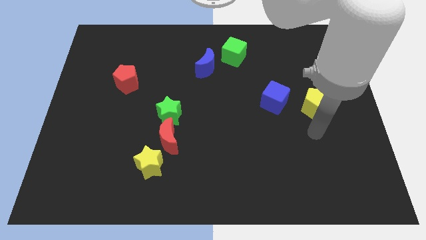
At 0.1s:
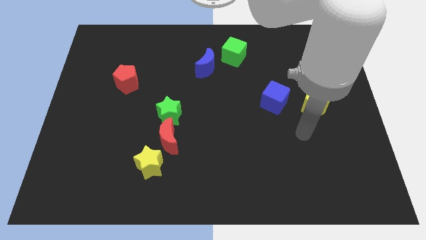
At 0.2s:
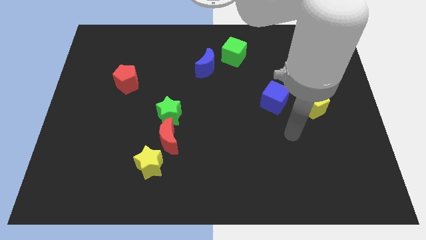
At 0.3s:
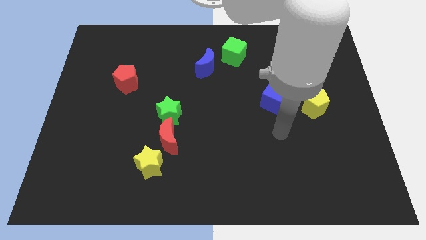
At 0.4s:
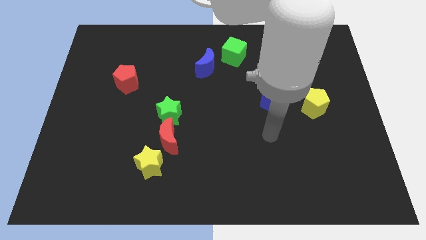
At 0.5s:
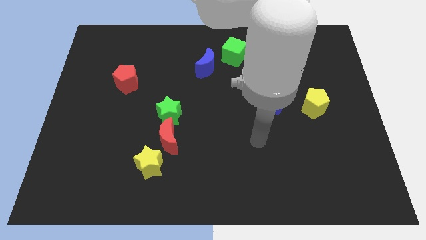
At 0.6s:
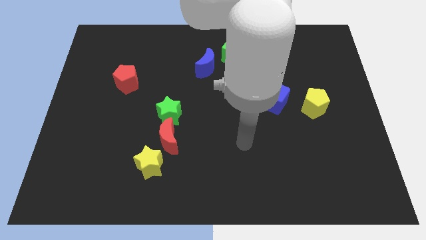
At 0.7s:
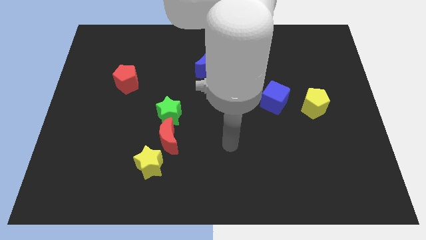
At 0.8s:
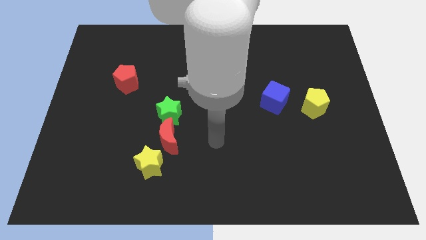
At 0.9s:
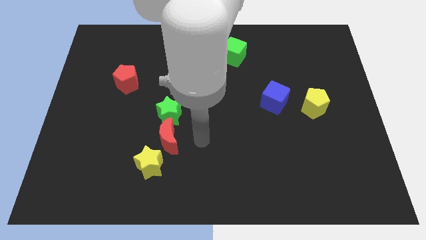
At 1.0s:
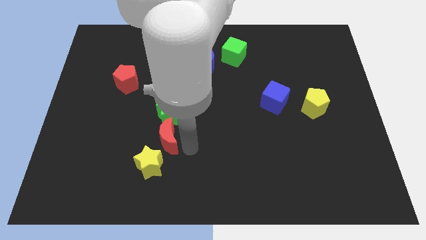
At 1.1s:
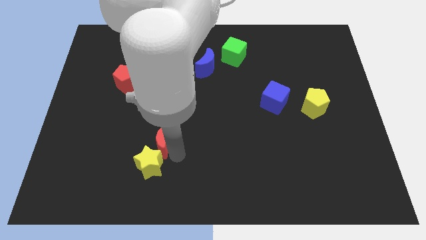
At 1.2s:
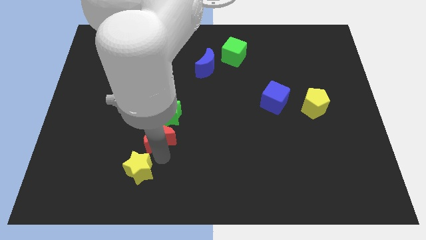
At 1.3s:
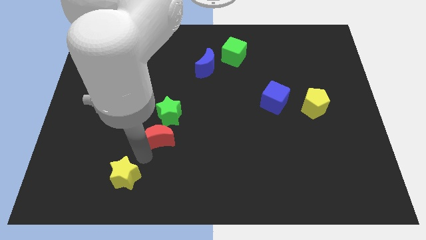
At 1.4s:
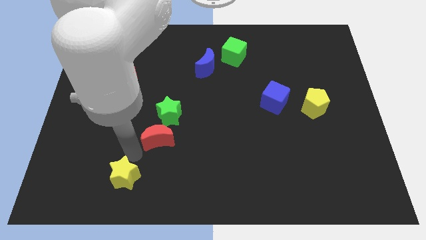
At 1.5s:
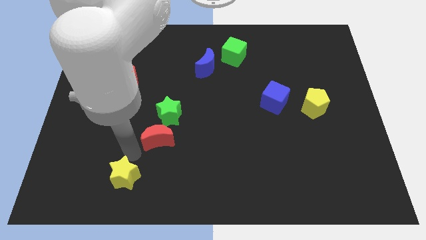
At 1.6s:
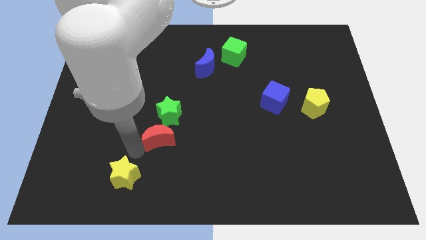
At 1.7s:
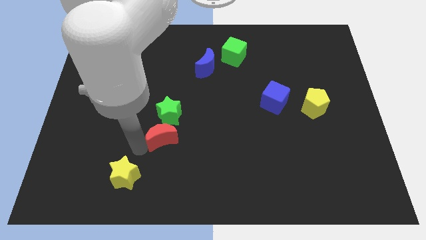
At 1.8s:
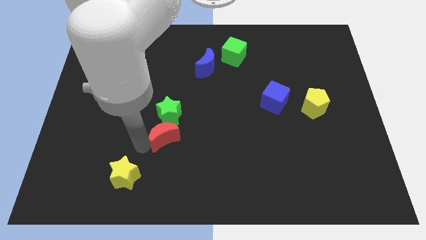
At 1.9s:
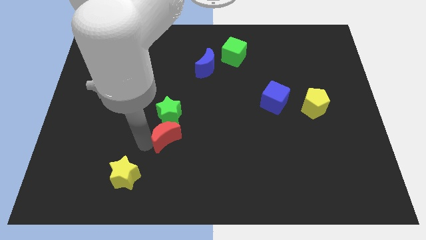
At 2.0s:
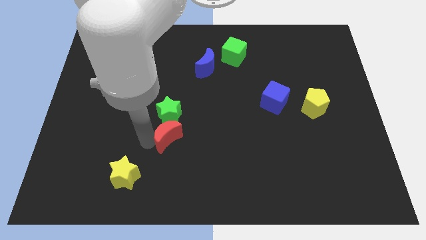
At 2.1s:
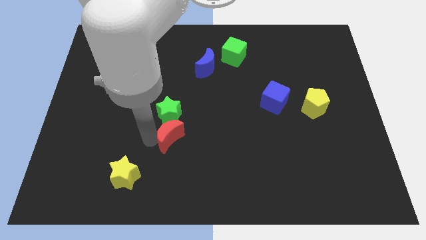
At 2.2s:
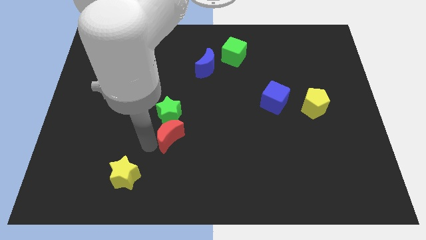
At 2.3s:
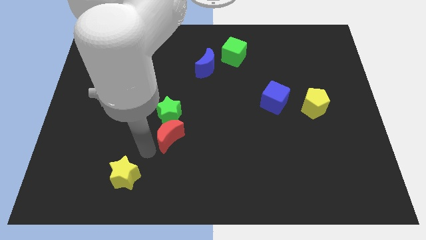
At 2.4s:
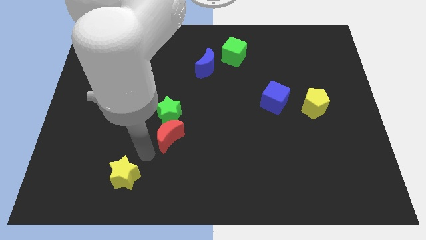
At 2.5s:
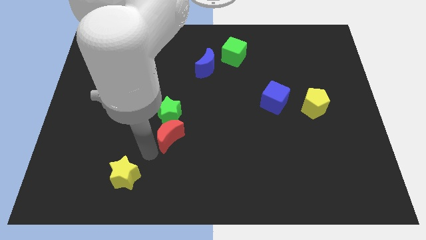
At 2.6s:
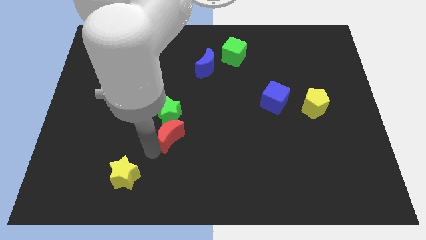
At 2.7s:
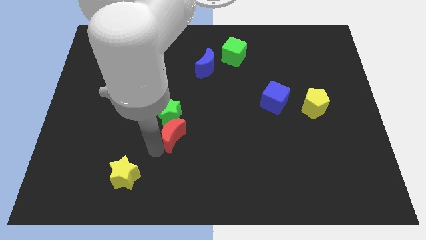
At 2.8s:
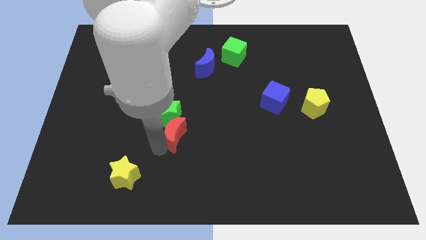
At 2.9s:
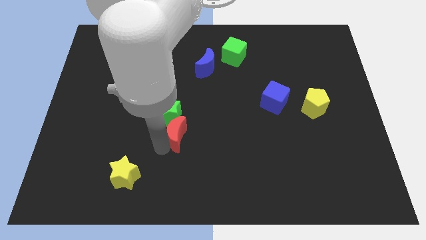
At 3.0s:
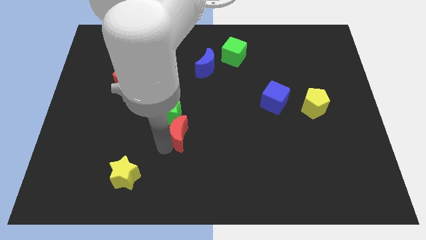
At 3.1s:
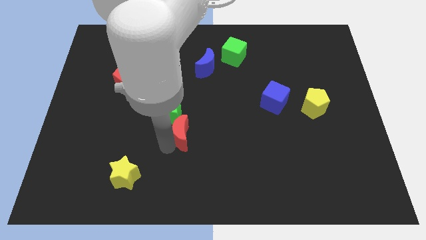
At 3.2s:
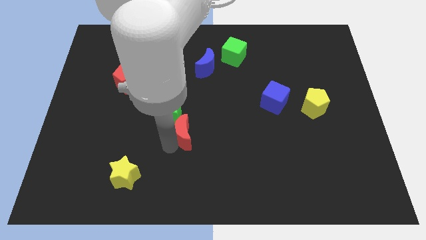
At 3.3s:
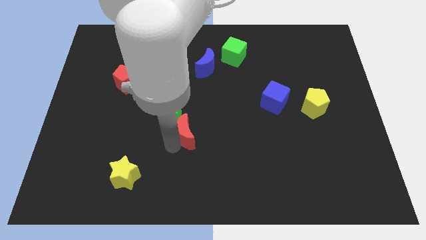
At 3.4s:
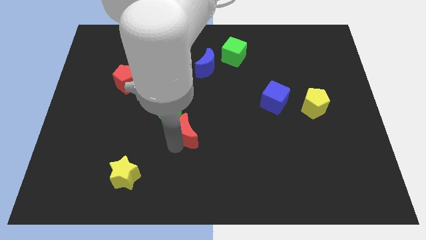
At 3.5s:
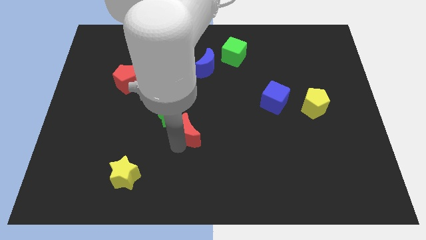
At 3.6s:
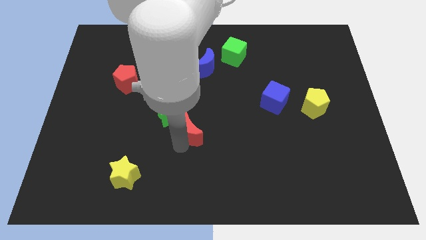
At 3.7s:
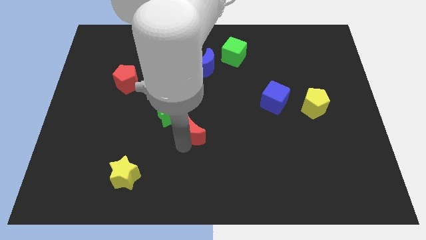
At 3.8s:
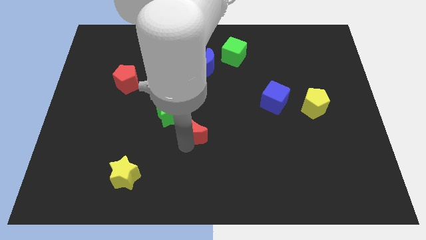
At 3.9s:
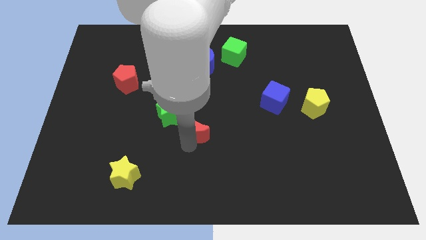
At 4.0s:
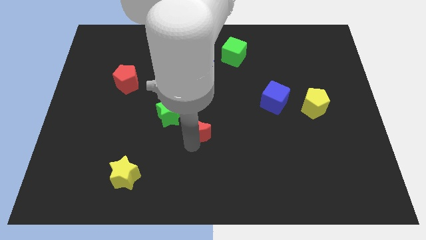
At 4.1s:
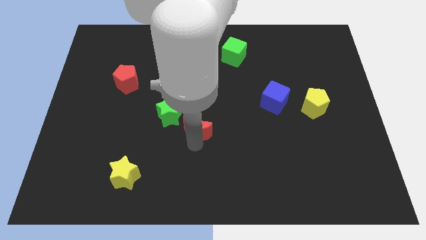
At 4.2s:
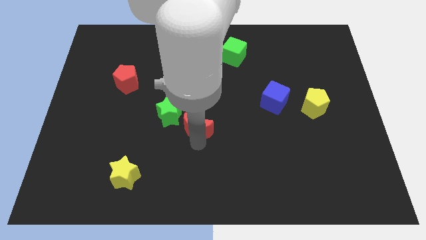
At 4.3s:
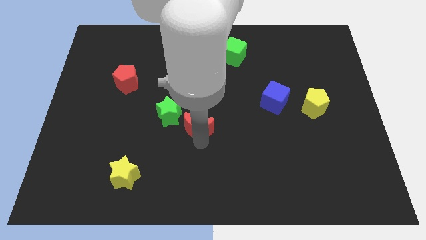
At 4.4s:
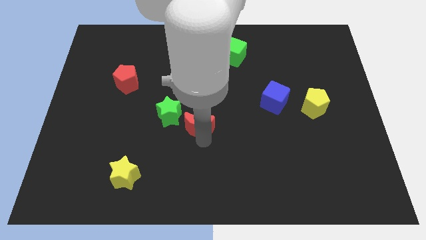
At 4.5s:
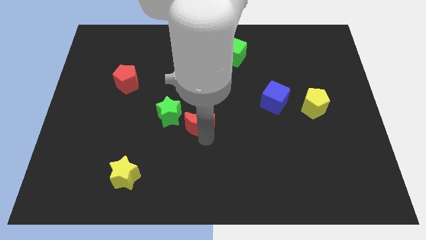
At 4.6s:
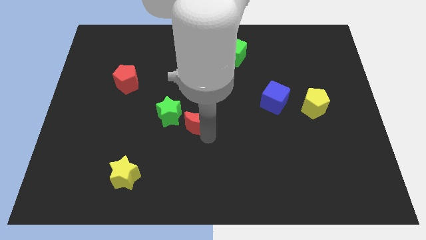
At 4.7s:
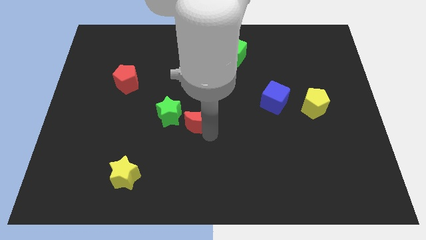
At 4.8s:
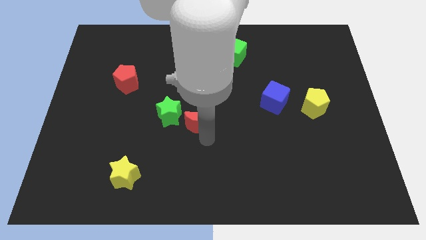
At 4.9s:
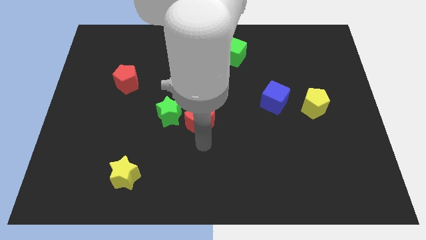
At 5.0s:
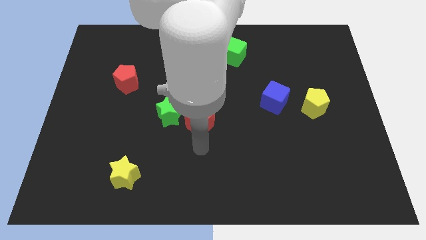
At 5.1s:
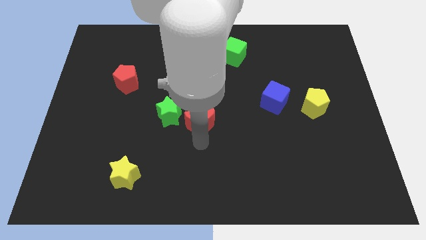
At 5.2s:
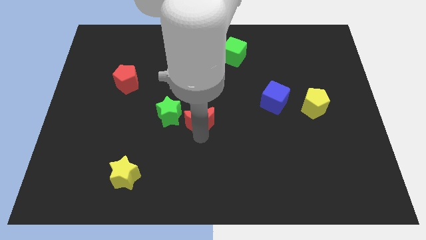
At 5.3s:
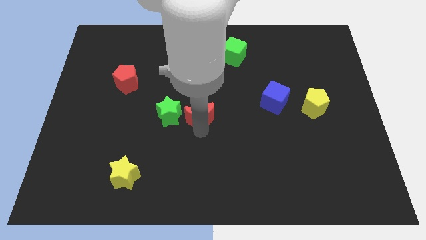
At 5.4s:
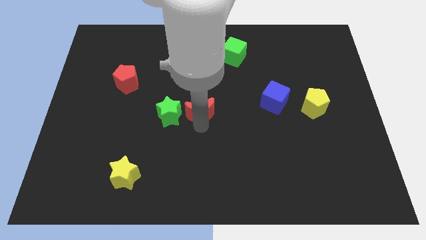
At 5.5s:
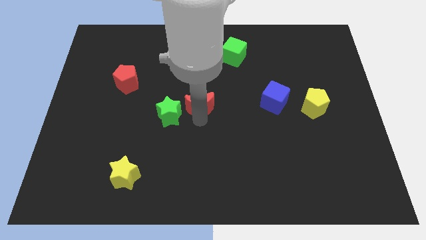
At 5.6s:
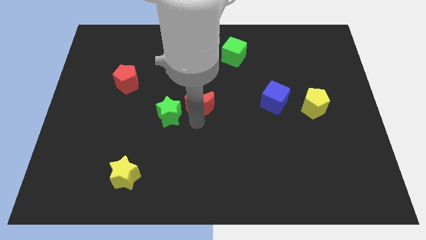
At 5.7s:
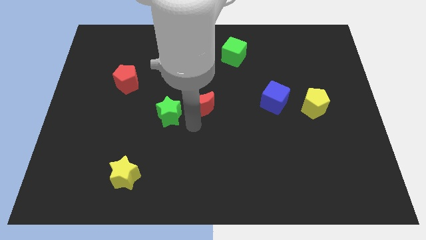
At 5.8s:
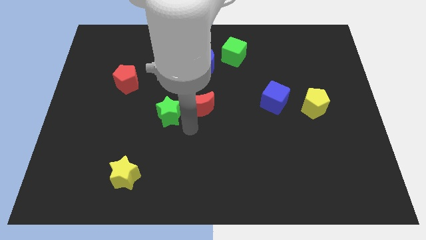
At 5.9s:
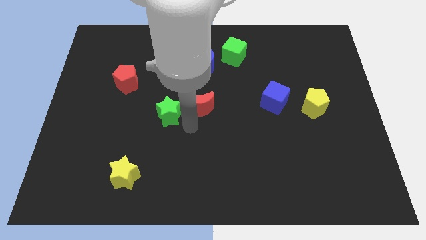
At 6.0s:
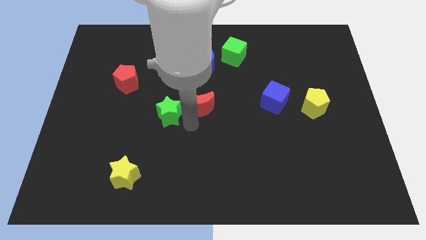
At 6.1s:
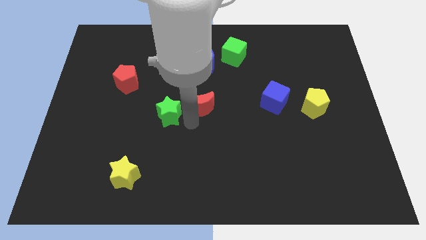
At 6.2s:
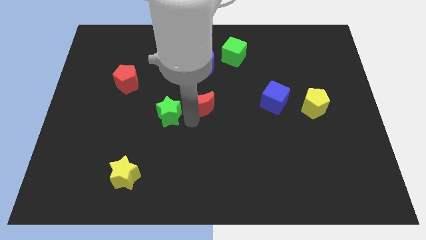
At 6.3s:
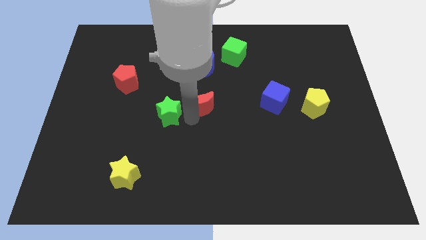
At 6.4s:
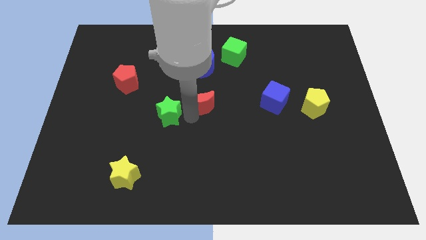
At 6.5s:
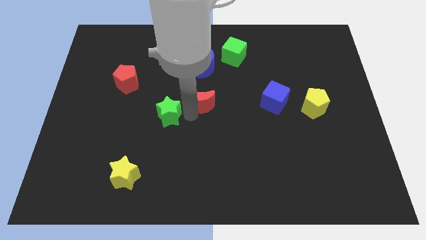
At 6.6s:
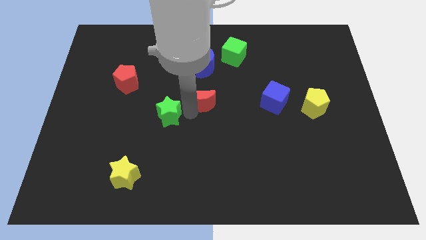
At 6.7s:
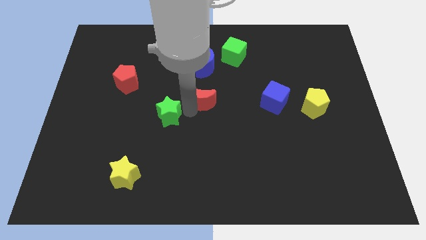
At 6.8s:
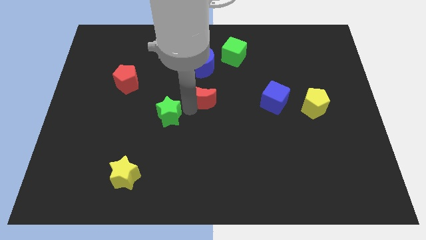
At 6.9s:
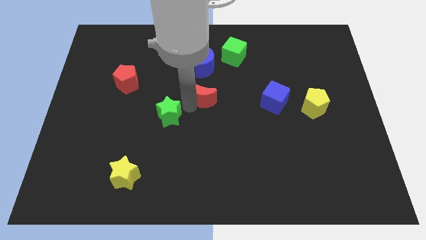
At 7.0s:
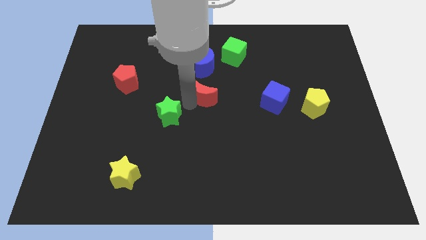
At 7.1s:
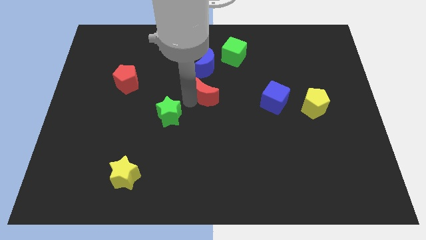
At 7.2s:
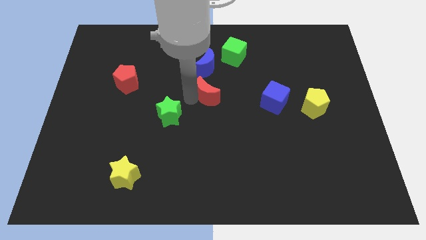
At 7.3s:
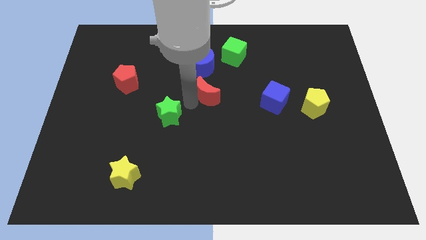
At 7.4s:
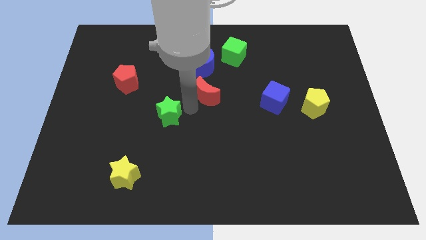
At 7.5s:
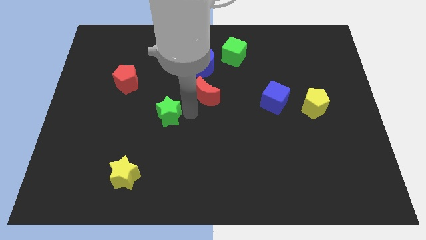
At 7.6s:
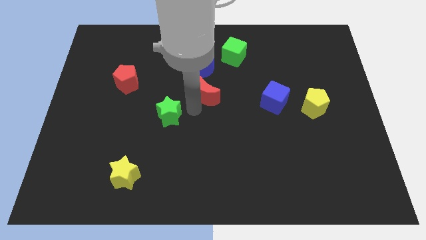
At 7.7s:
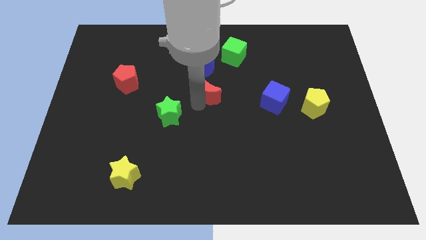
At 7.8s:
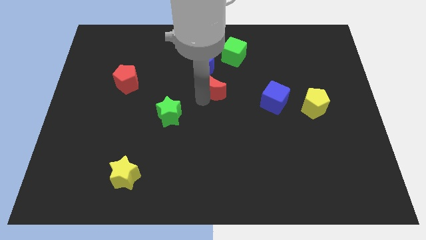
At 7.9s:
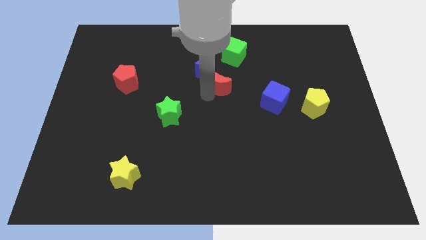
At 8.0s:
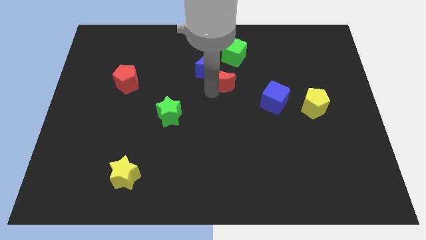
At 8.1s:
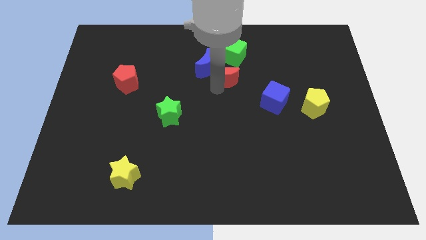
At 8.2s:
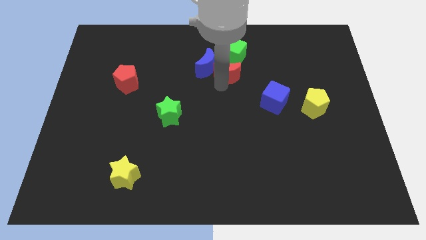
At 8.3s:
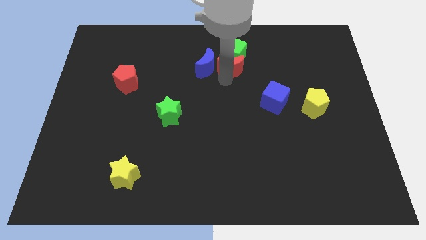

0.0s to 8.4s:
put the red moon close to the green cube
